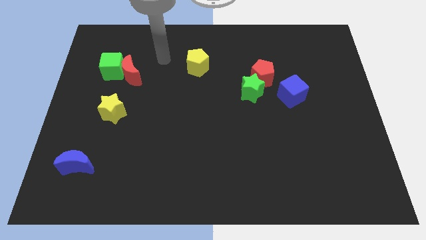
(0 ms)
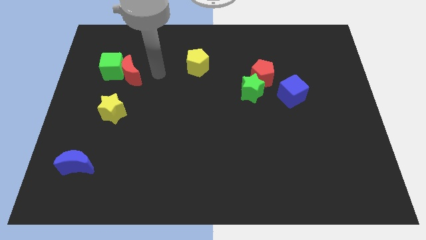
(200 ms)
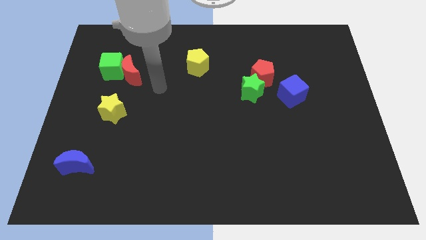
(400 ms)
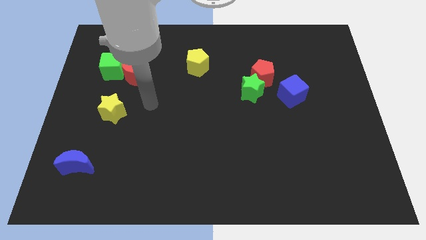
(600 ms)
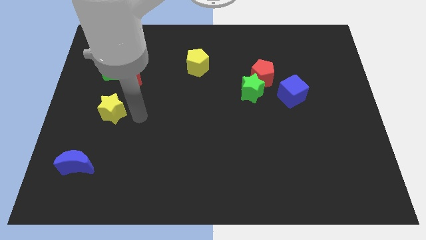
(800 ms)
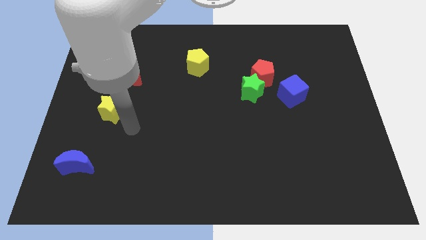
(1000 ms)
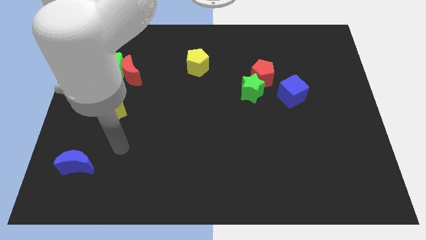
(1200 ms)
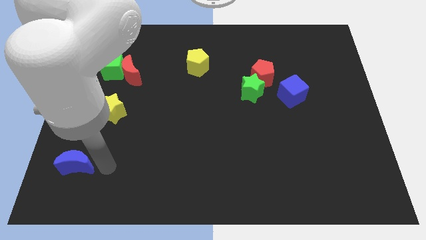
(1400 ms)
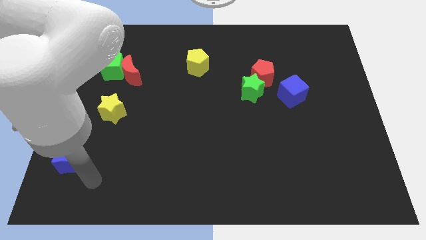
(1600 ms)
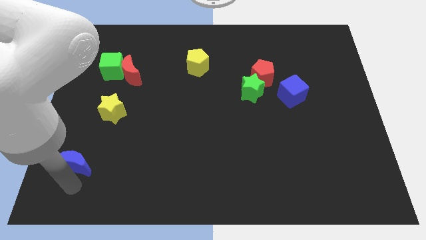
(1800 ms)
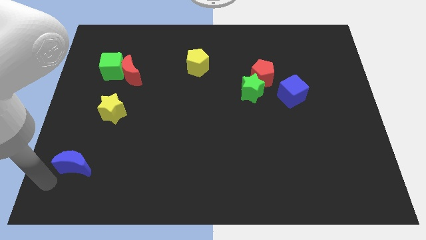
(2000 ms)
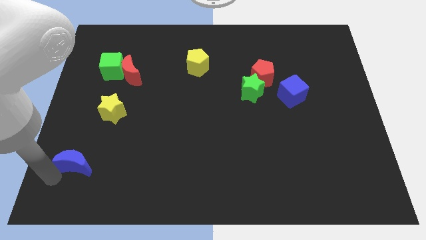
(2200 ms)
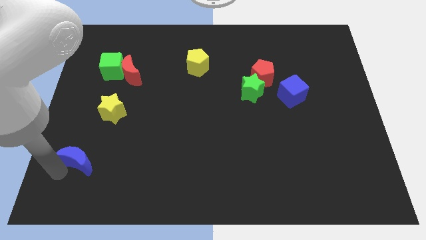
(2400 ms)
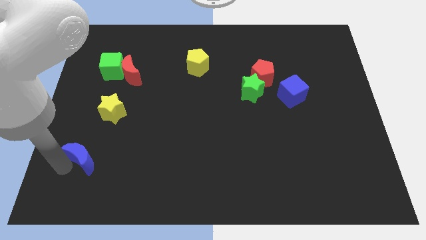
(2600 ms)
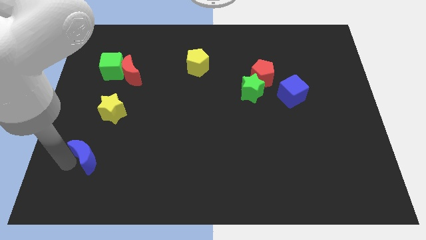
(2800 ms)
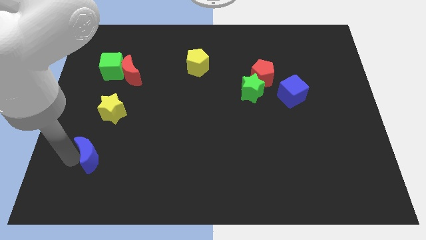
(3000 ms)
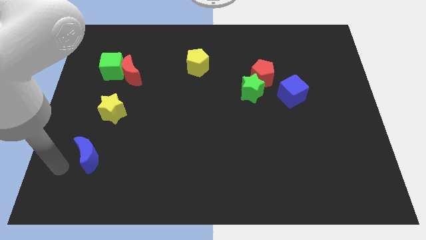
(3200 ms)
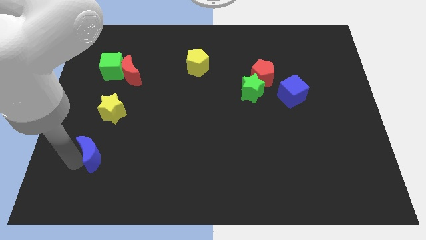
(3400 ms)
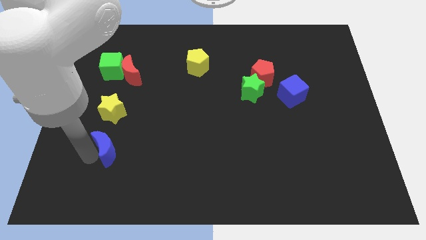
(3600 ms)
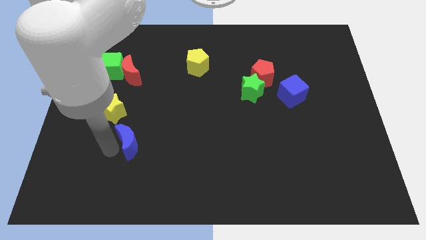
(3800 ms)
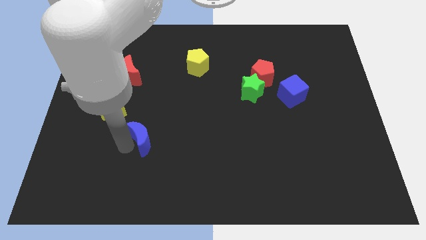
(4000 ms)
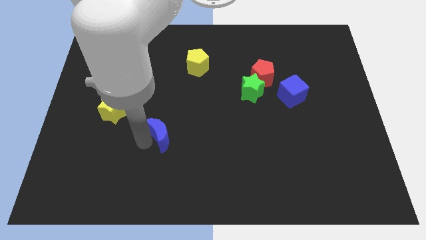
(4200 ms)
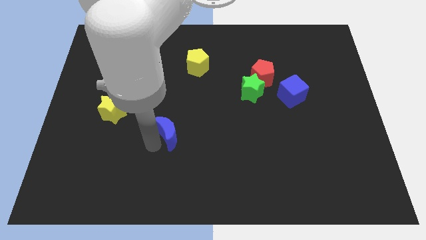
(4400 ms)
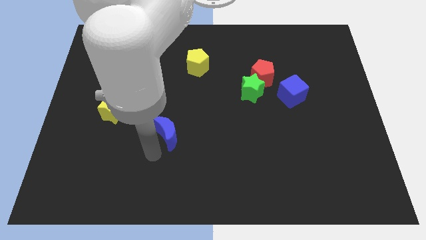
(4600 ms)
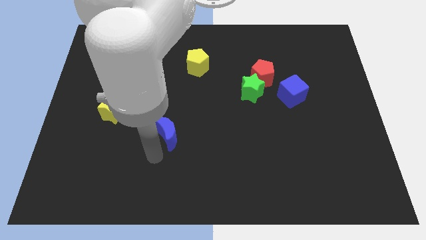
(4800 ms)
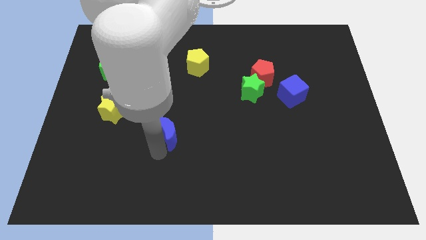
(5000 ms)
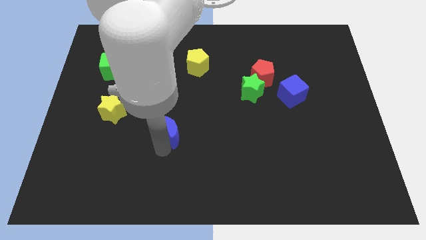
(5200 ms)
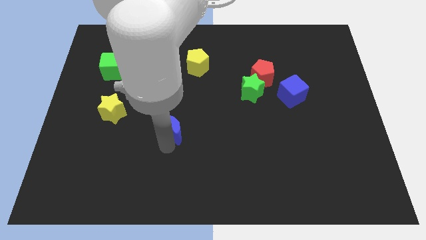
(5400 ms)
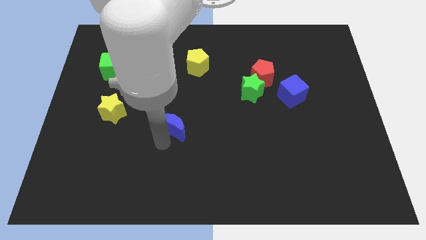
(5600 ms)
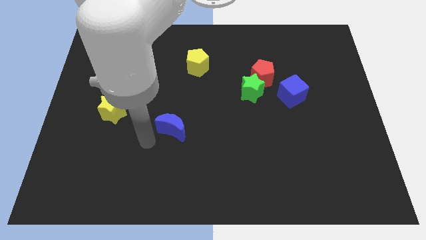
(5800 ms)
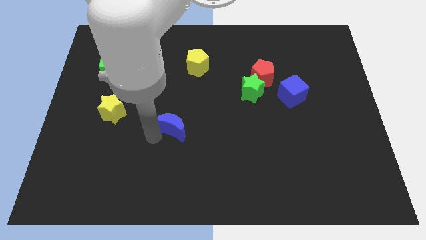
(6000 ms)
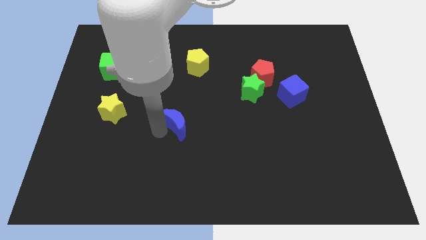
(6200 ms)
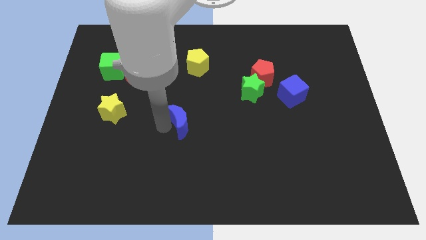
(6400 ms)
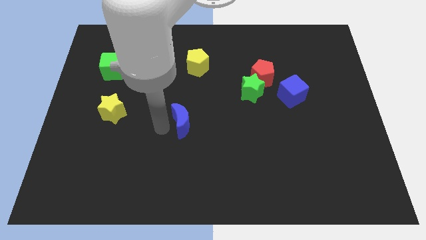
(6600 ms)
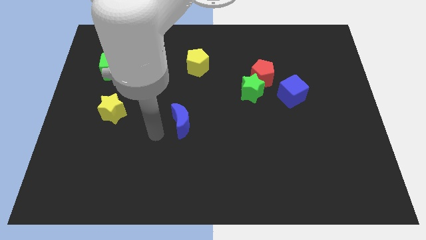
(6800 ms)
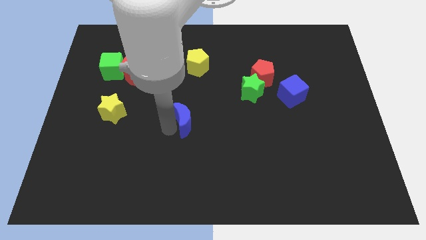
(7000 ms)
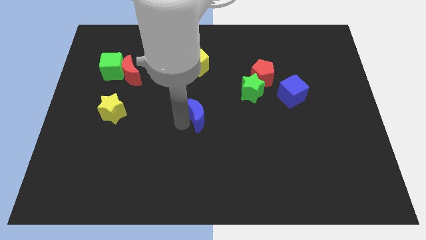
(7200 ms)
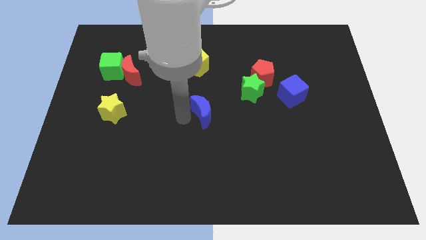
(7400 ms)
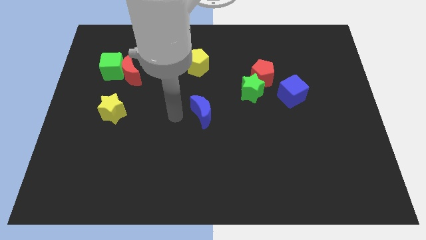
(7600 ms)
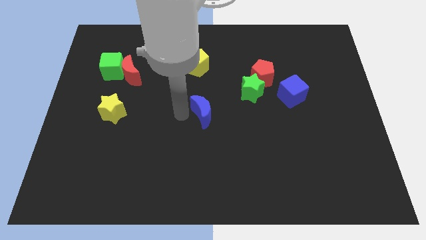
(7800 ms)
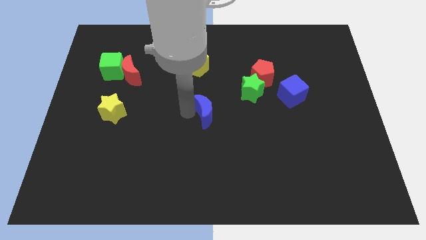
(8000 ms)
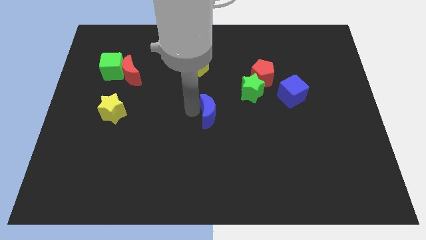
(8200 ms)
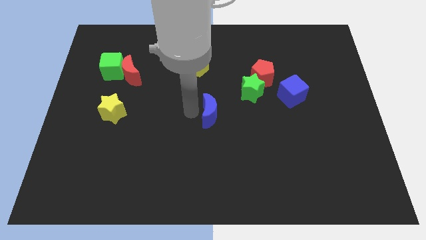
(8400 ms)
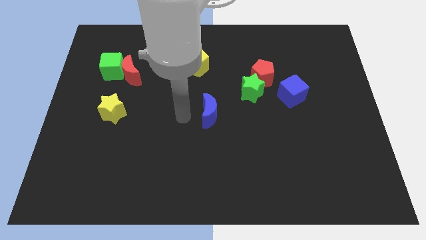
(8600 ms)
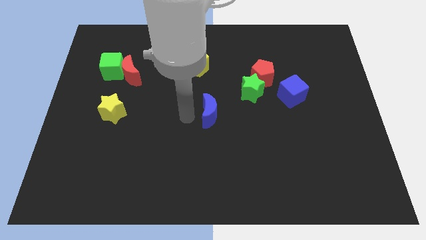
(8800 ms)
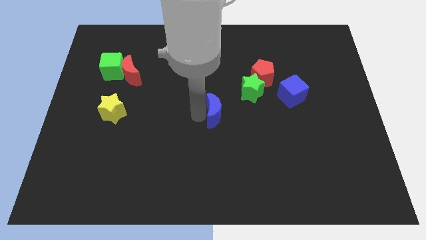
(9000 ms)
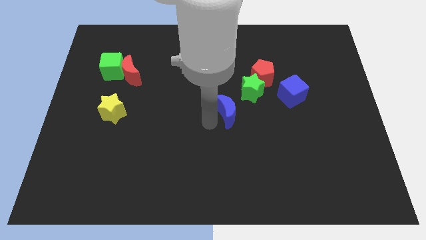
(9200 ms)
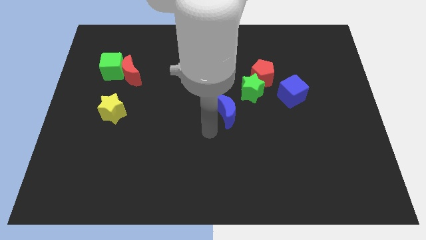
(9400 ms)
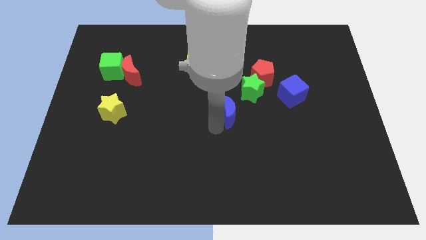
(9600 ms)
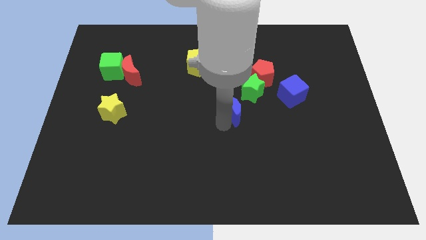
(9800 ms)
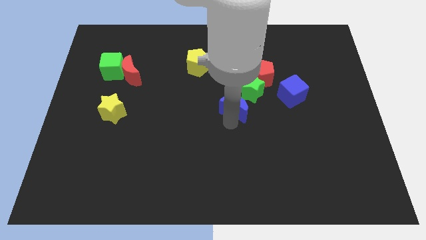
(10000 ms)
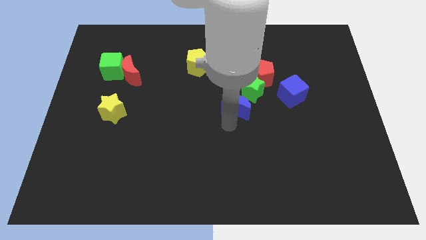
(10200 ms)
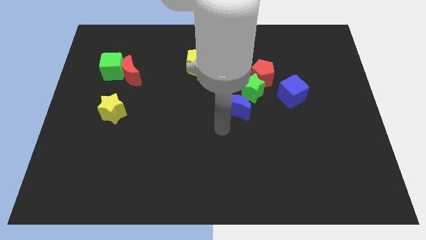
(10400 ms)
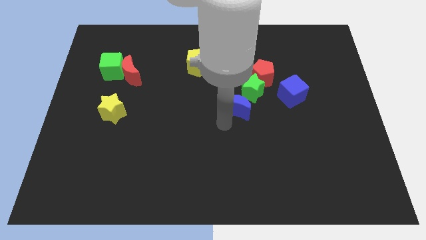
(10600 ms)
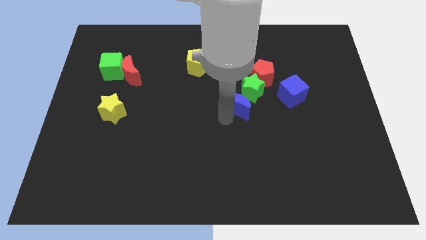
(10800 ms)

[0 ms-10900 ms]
put the blue moon towards the green star
